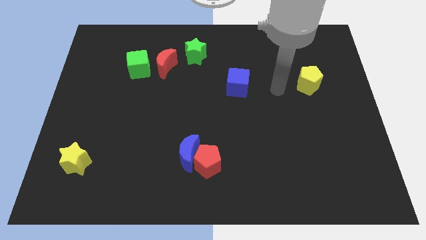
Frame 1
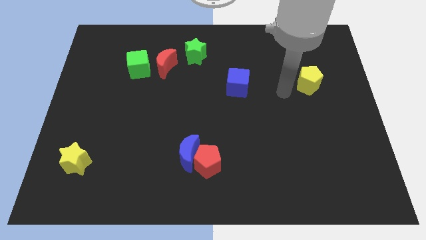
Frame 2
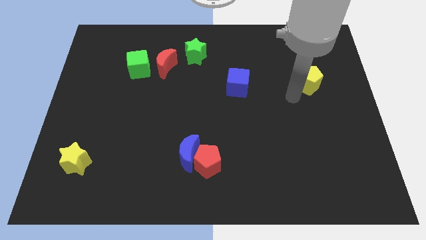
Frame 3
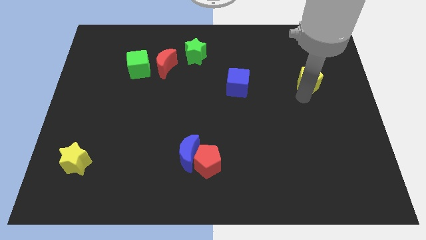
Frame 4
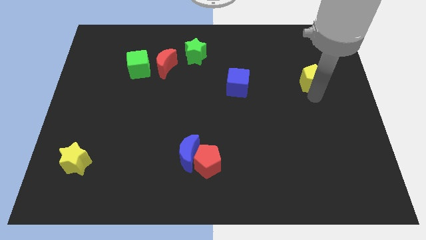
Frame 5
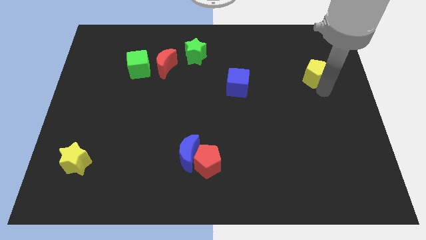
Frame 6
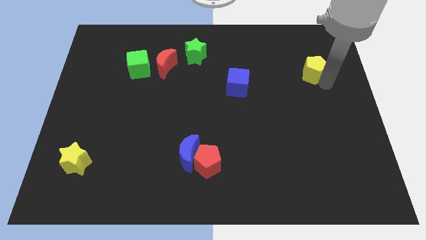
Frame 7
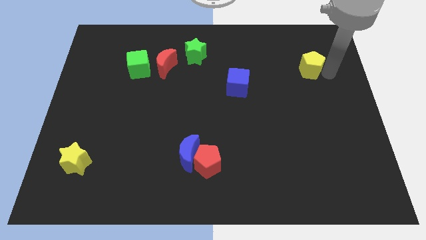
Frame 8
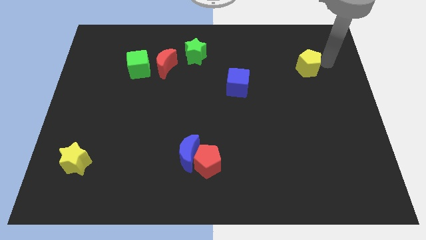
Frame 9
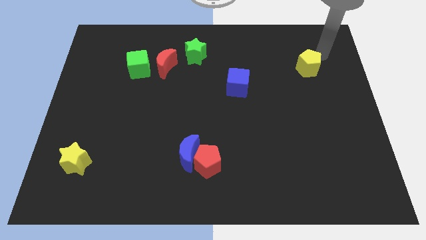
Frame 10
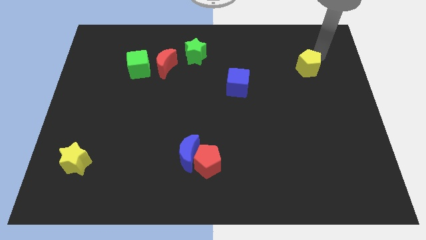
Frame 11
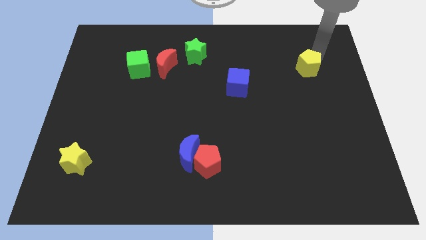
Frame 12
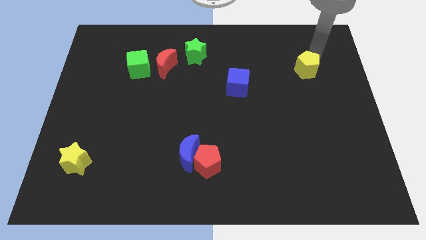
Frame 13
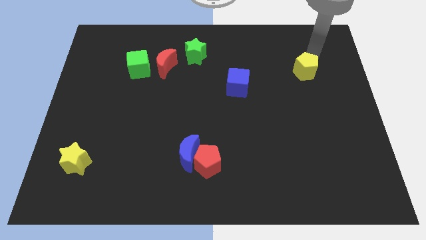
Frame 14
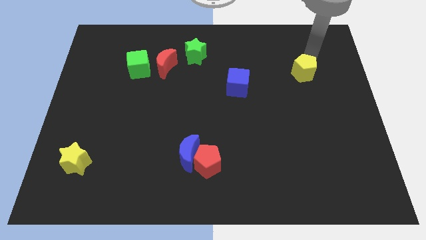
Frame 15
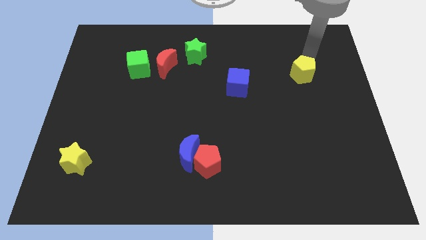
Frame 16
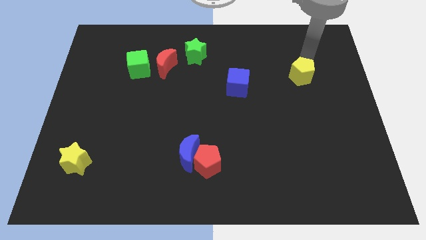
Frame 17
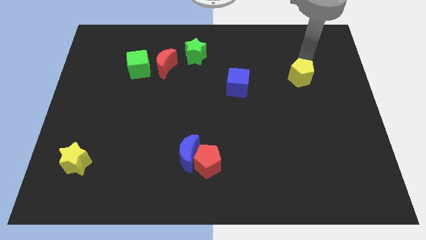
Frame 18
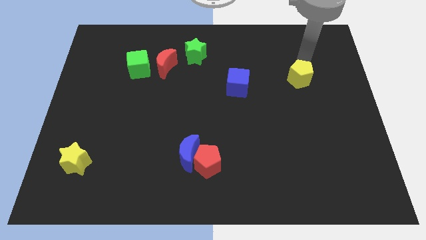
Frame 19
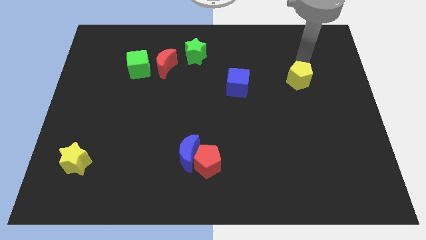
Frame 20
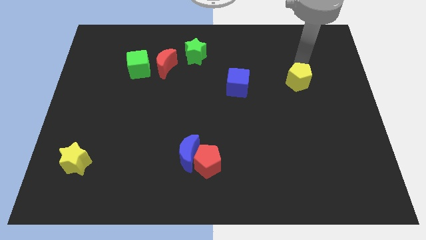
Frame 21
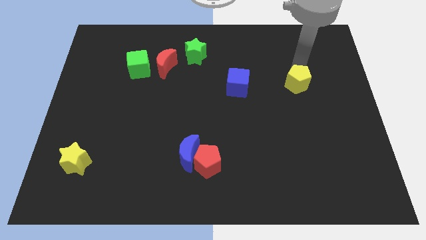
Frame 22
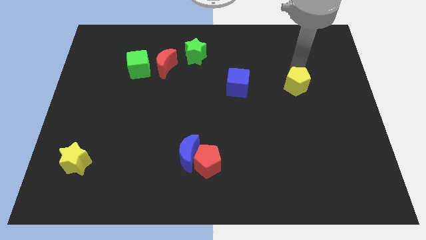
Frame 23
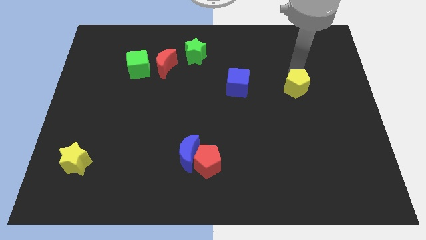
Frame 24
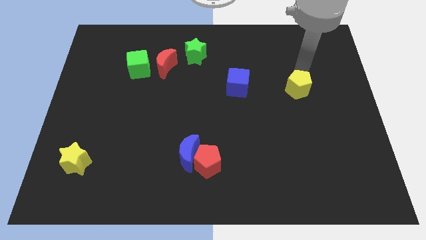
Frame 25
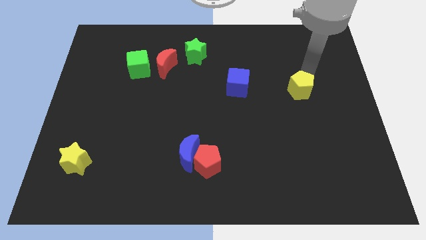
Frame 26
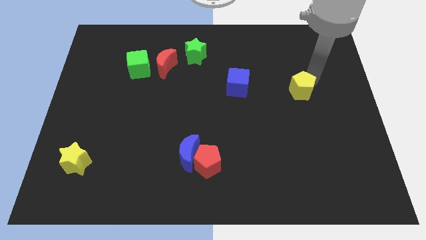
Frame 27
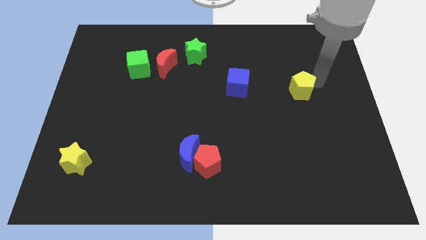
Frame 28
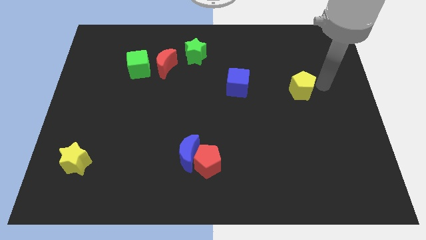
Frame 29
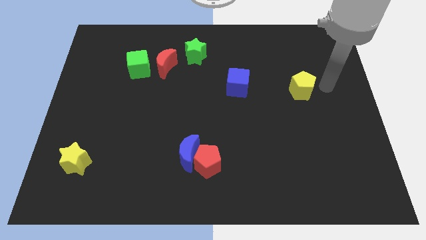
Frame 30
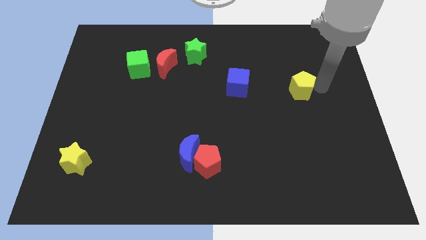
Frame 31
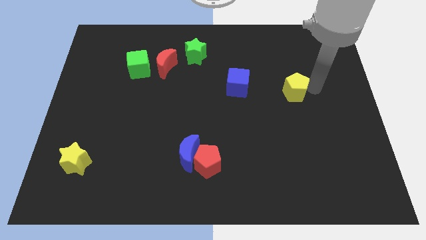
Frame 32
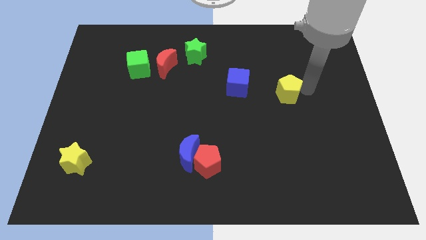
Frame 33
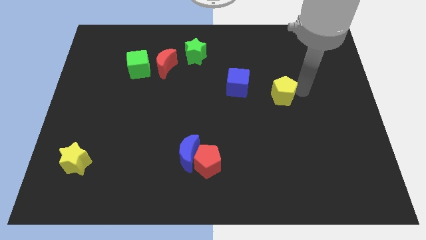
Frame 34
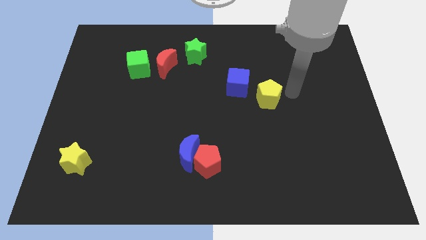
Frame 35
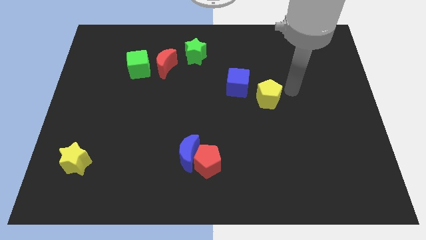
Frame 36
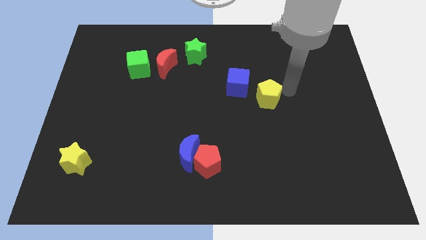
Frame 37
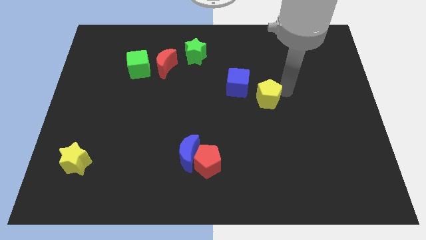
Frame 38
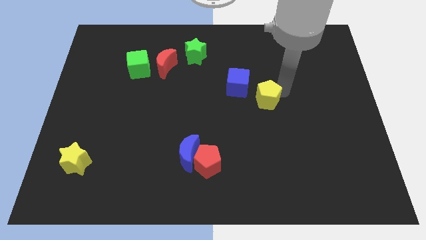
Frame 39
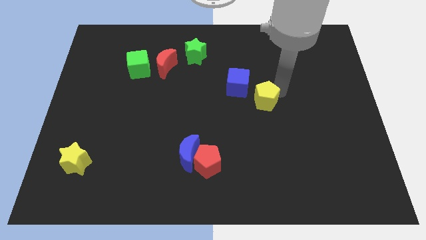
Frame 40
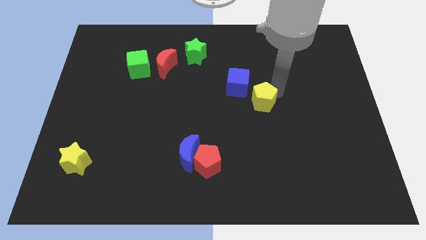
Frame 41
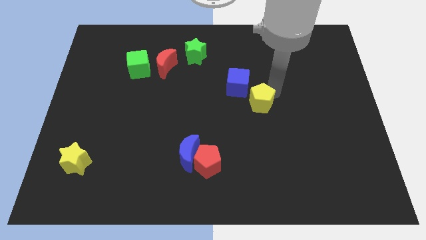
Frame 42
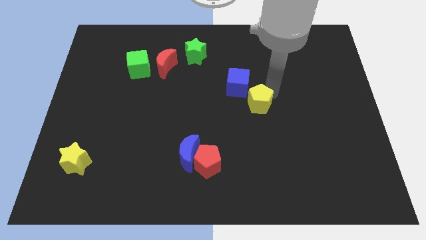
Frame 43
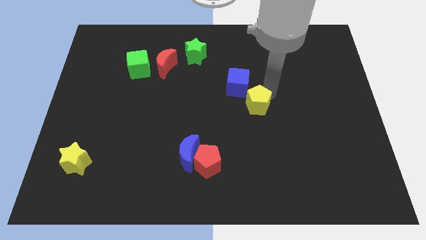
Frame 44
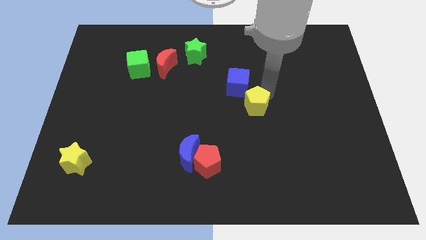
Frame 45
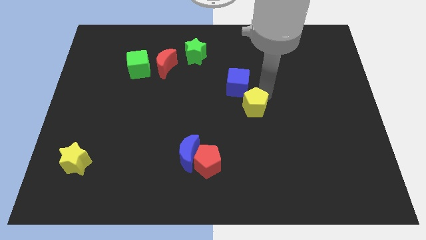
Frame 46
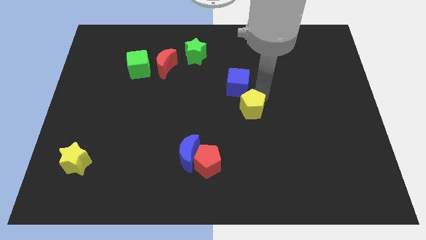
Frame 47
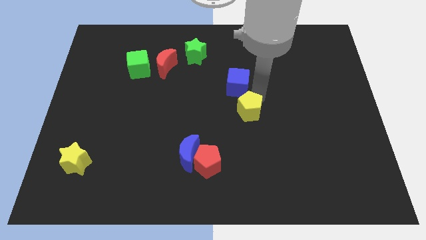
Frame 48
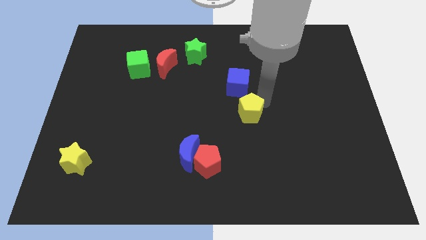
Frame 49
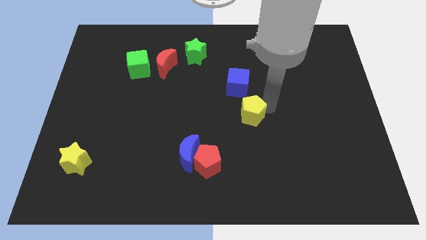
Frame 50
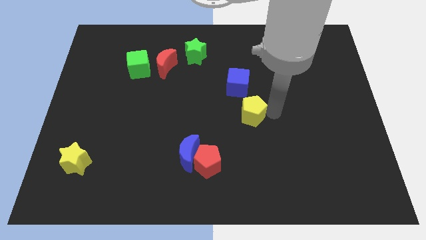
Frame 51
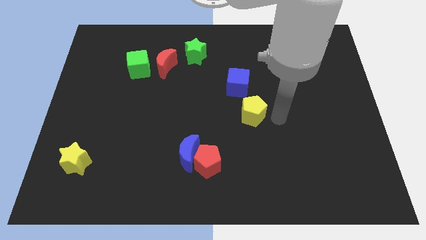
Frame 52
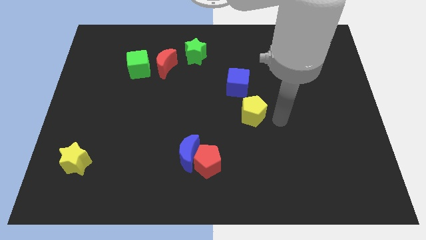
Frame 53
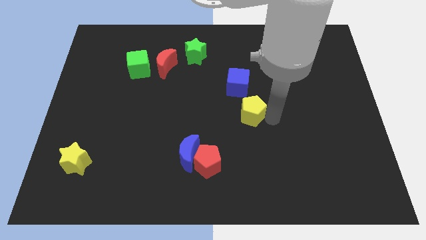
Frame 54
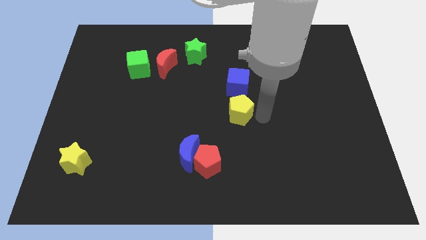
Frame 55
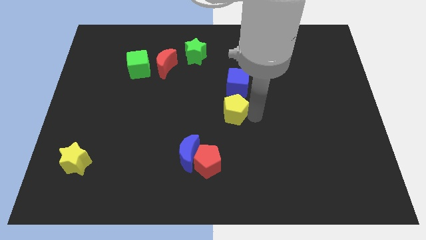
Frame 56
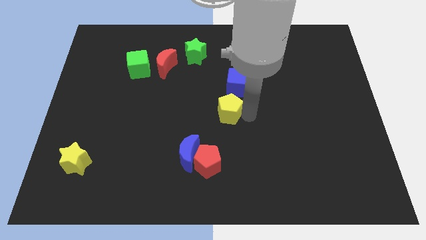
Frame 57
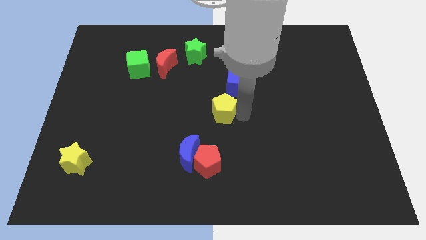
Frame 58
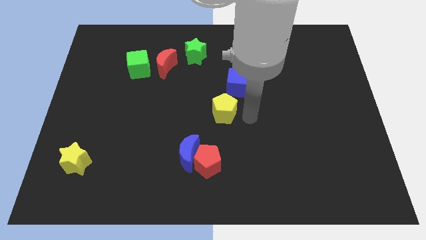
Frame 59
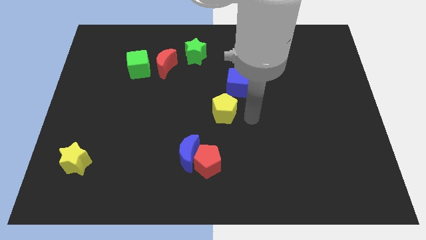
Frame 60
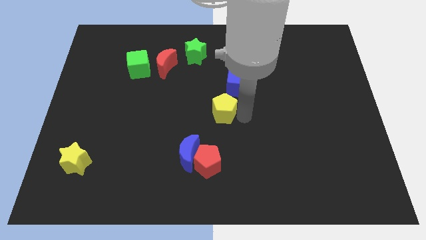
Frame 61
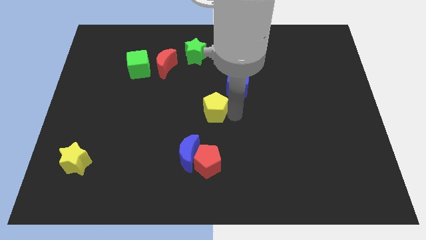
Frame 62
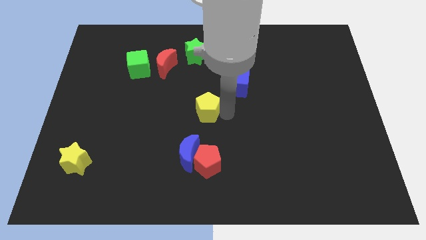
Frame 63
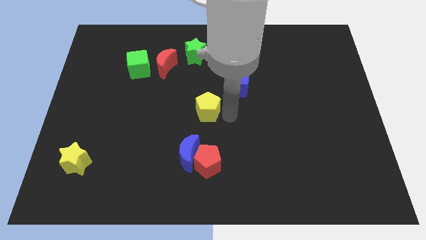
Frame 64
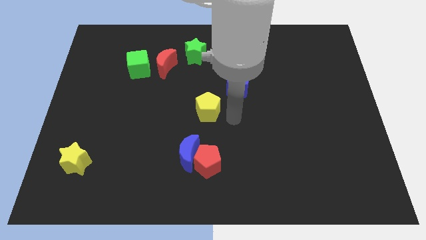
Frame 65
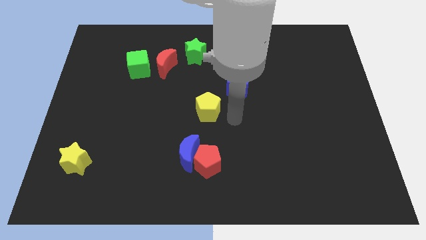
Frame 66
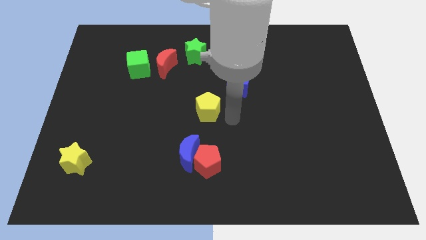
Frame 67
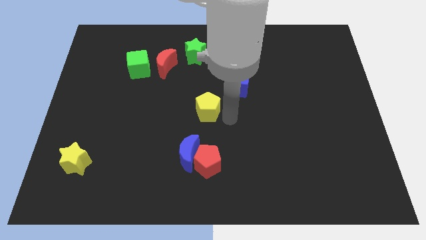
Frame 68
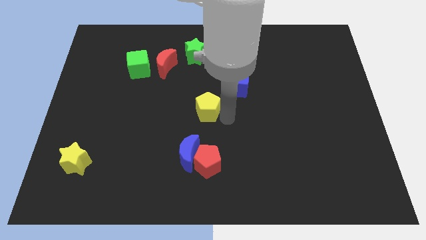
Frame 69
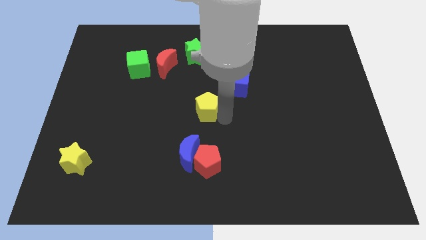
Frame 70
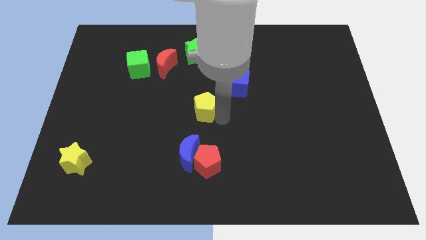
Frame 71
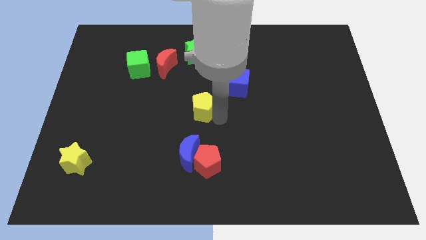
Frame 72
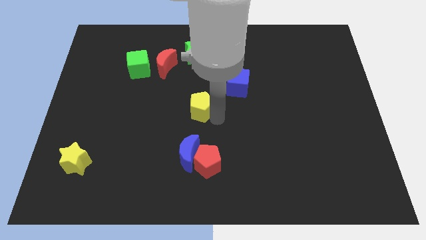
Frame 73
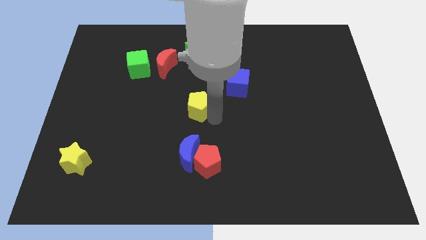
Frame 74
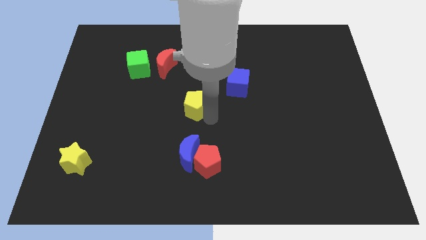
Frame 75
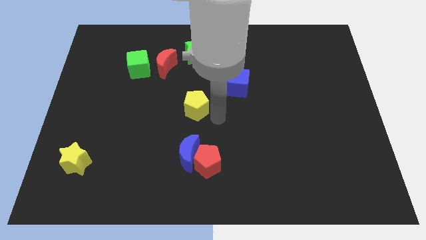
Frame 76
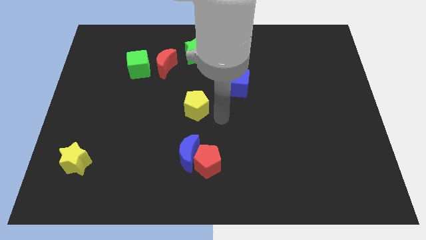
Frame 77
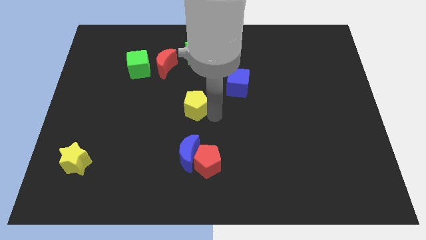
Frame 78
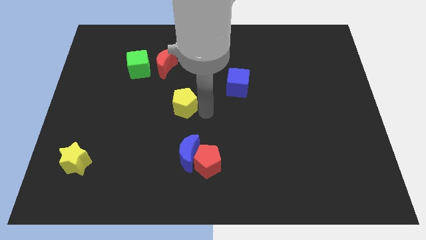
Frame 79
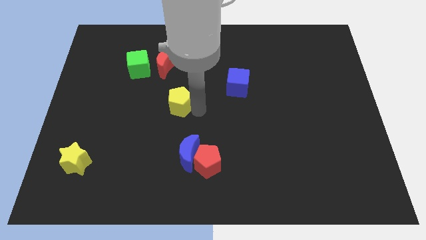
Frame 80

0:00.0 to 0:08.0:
put the yellow pentagon to the bottom of the red moon

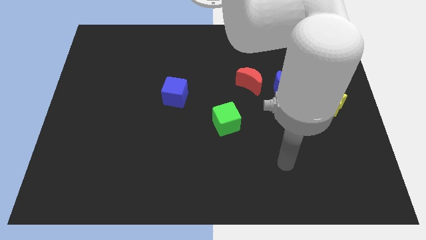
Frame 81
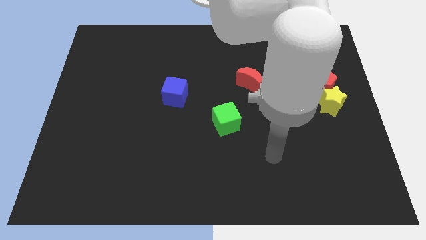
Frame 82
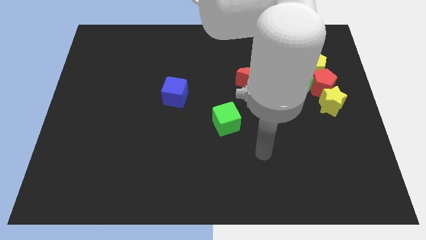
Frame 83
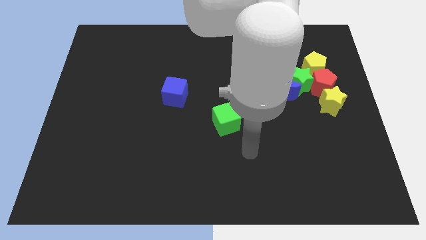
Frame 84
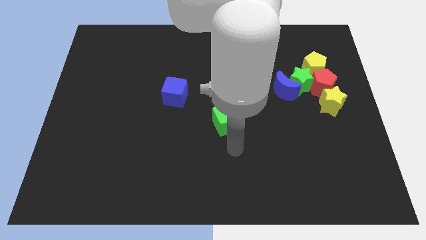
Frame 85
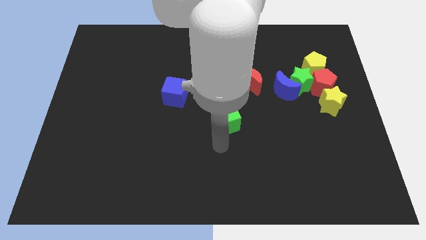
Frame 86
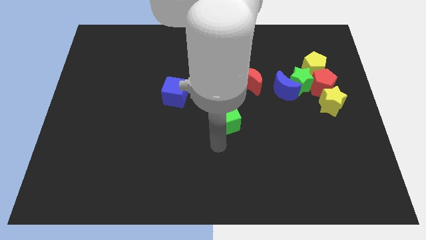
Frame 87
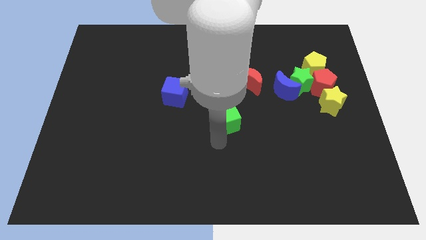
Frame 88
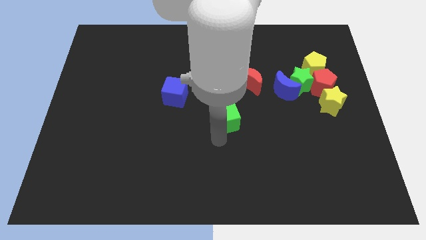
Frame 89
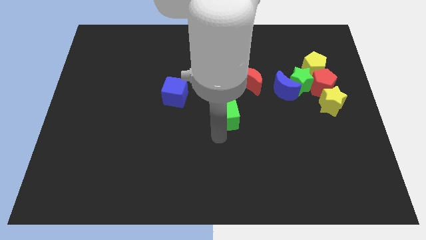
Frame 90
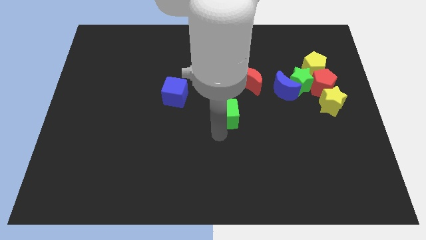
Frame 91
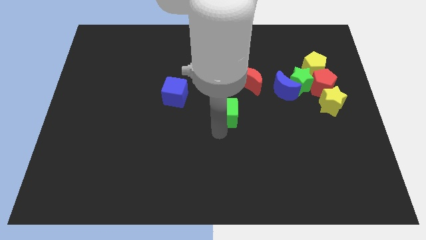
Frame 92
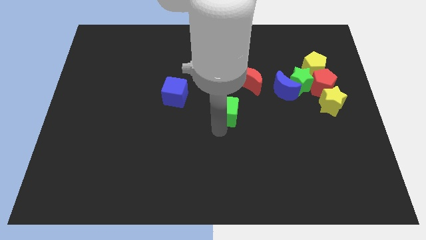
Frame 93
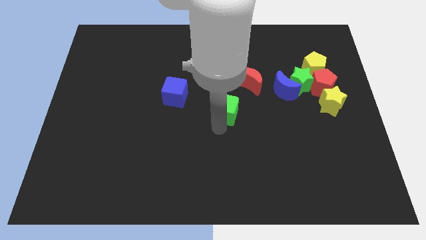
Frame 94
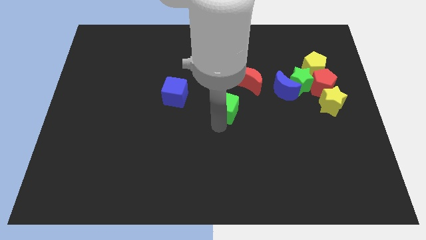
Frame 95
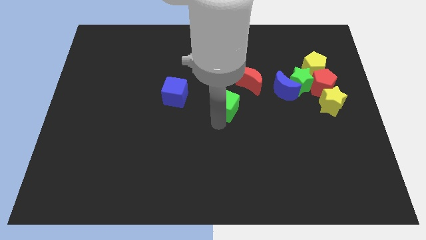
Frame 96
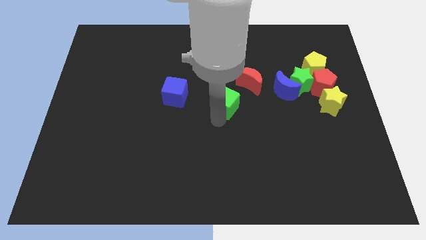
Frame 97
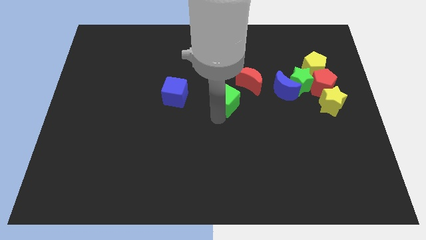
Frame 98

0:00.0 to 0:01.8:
put the green cube left of the blue moon
